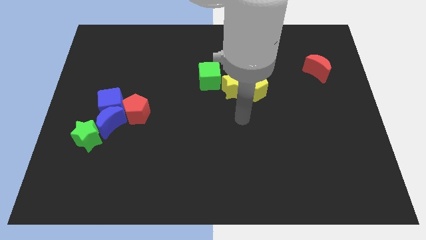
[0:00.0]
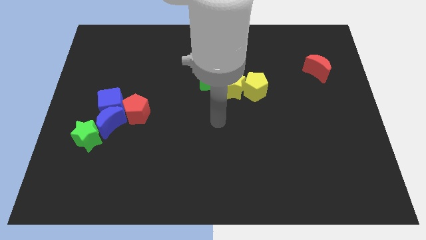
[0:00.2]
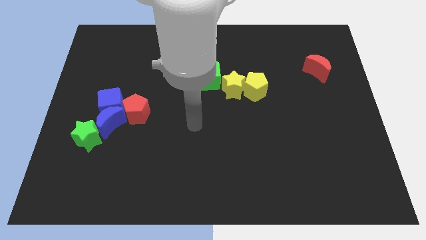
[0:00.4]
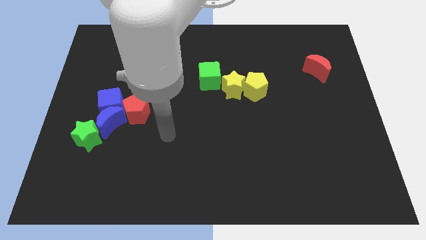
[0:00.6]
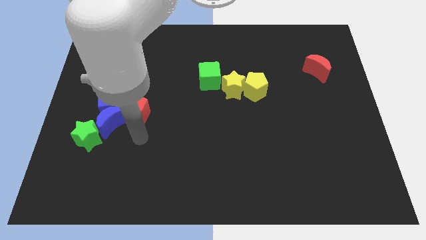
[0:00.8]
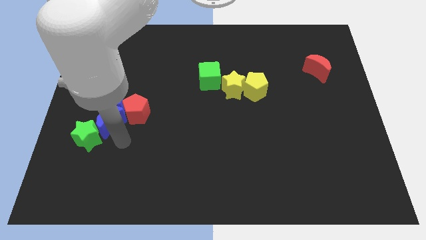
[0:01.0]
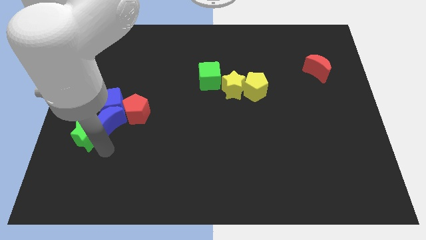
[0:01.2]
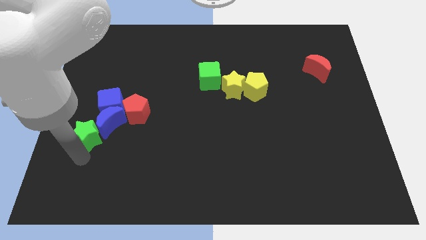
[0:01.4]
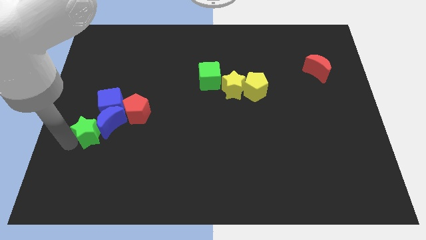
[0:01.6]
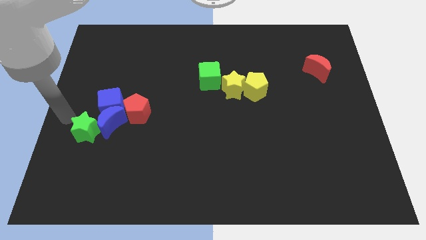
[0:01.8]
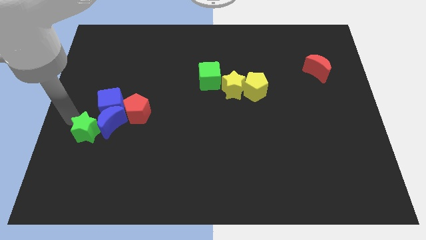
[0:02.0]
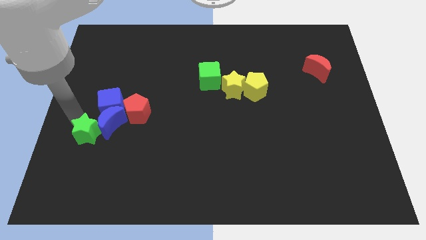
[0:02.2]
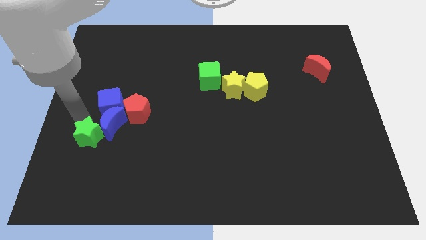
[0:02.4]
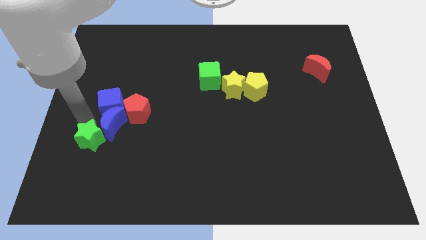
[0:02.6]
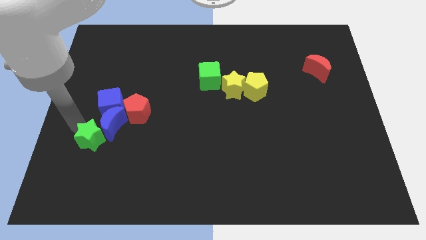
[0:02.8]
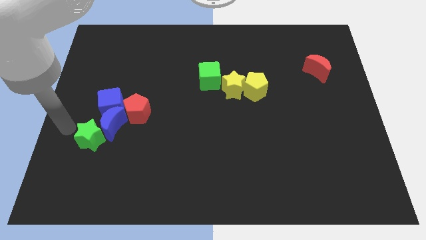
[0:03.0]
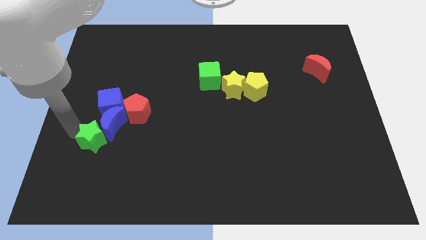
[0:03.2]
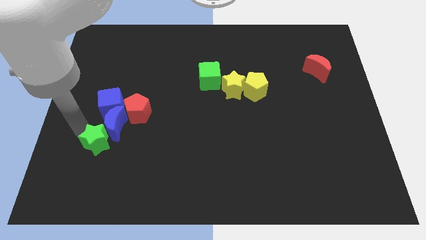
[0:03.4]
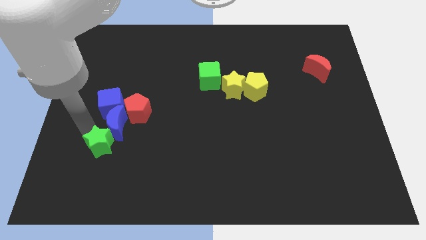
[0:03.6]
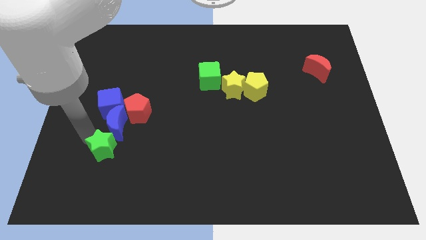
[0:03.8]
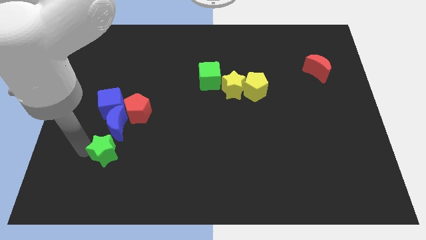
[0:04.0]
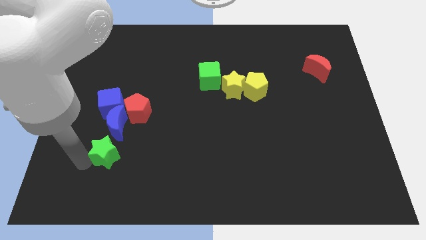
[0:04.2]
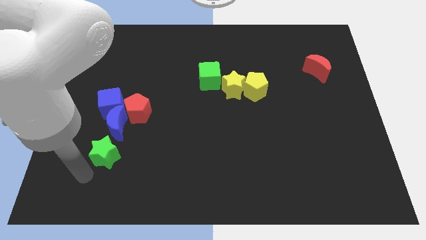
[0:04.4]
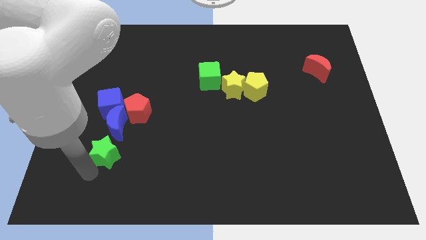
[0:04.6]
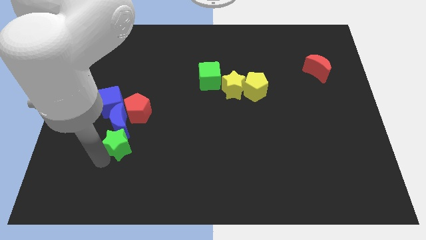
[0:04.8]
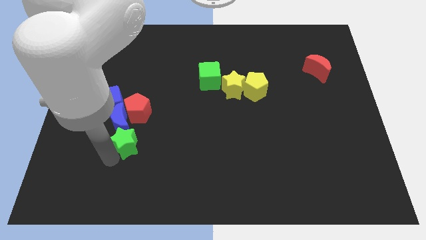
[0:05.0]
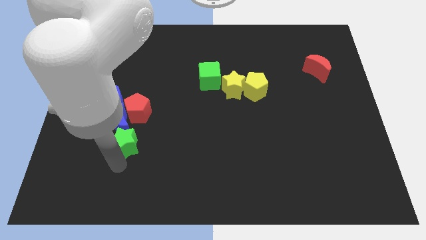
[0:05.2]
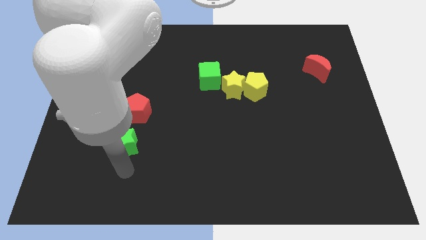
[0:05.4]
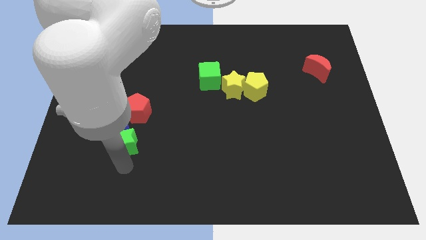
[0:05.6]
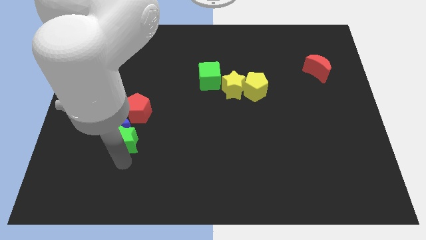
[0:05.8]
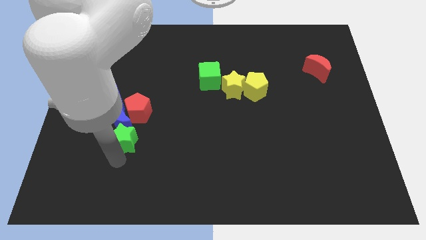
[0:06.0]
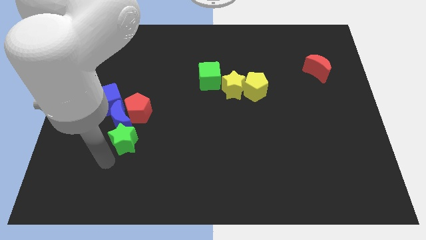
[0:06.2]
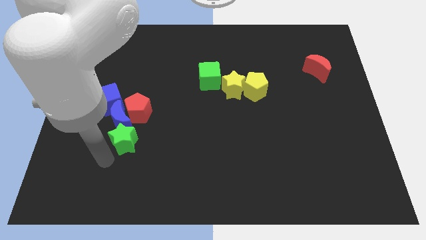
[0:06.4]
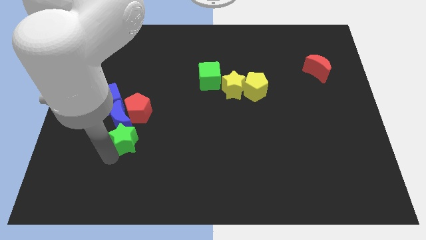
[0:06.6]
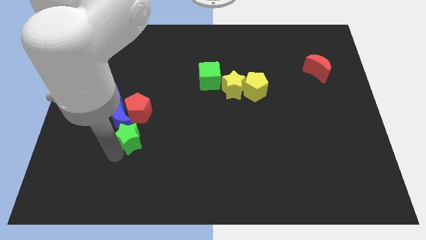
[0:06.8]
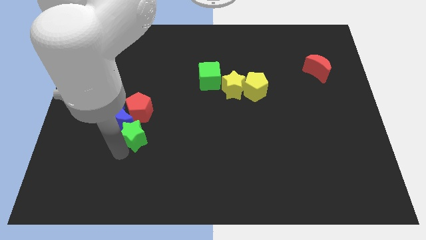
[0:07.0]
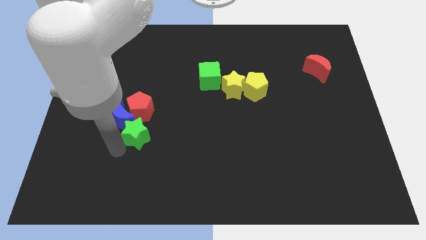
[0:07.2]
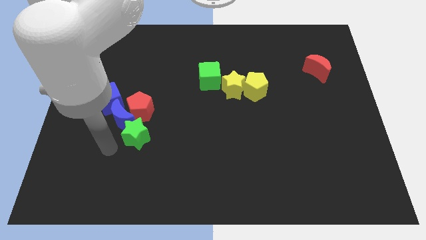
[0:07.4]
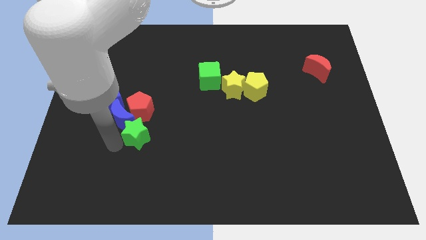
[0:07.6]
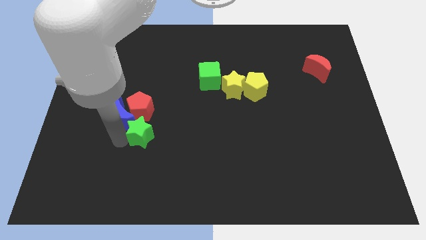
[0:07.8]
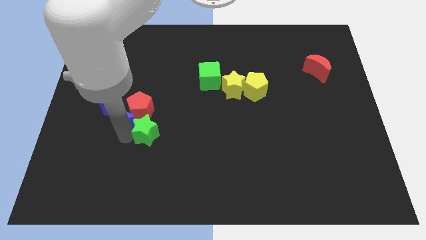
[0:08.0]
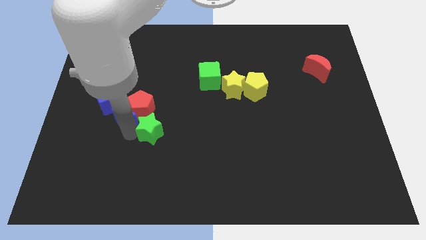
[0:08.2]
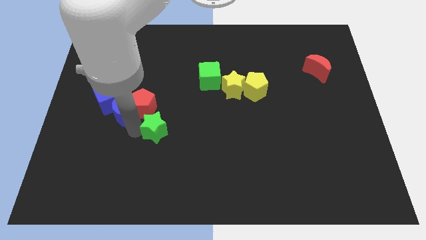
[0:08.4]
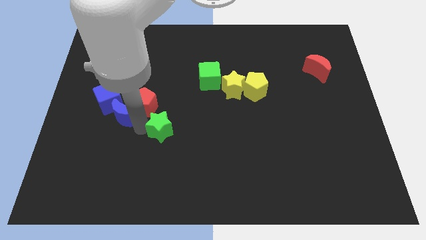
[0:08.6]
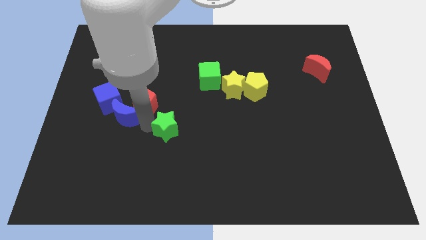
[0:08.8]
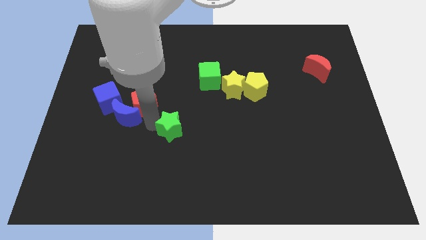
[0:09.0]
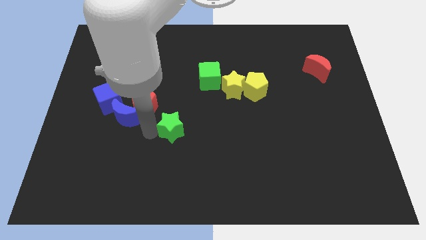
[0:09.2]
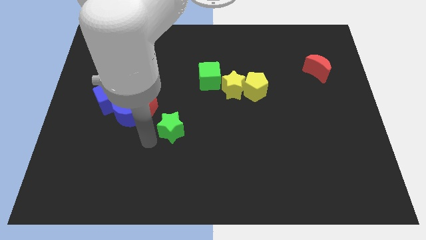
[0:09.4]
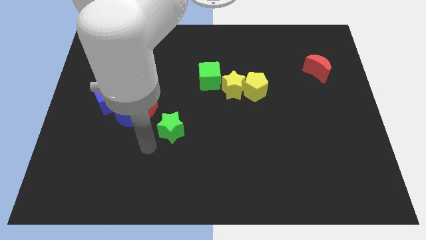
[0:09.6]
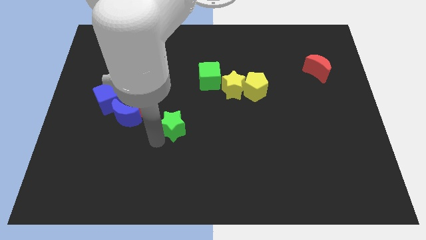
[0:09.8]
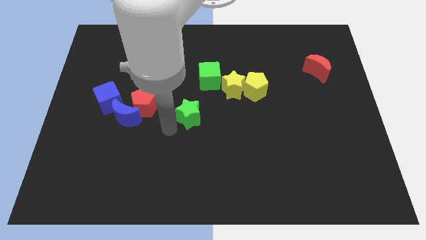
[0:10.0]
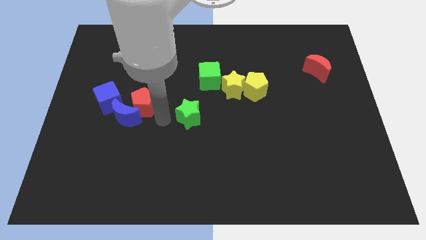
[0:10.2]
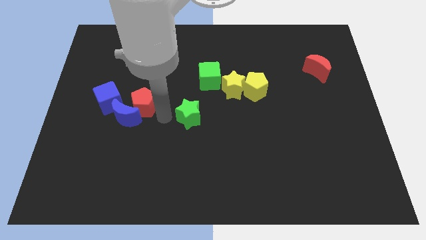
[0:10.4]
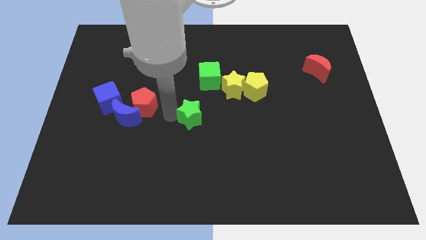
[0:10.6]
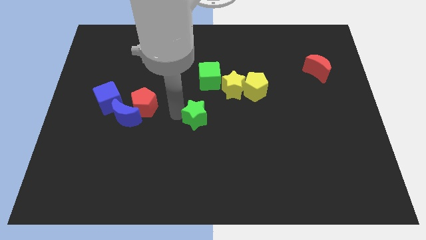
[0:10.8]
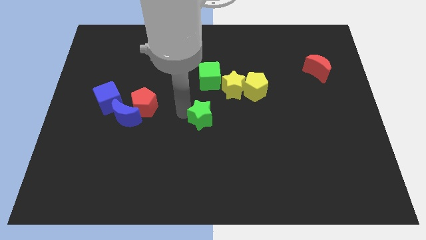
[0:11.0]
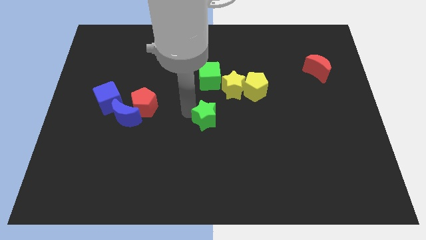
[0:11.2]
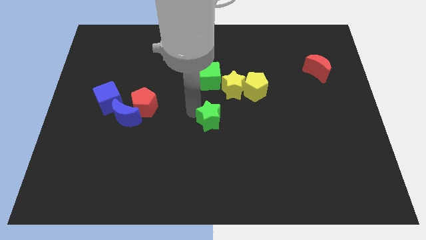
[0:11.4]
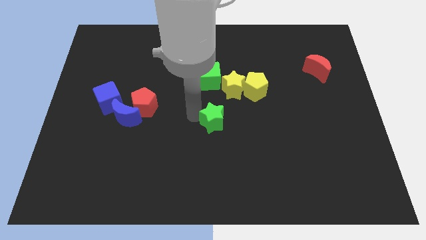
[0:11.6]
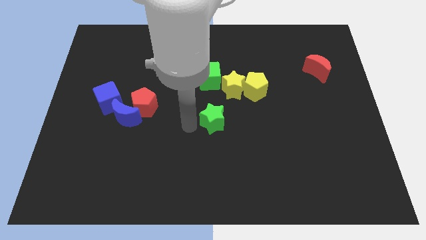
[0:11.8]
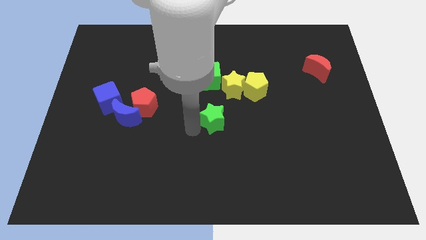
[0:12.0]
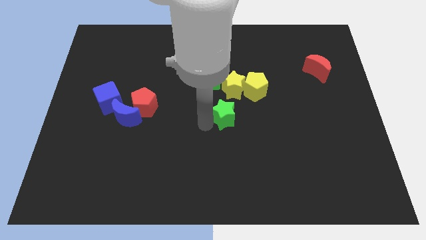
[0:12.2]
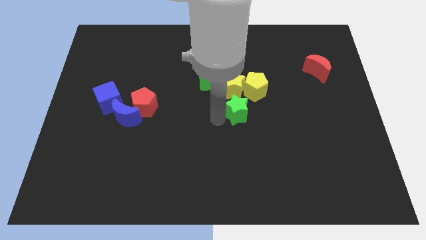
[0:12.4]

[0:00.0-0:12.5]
push the green star to the bottom right side of the yellow star
